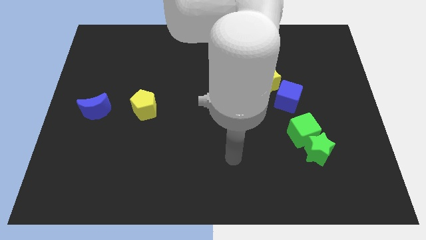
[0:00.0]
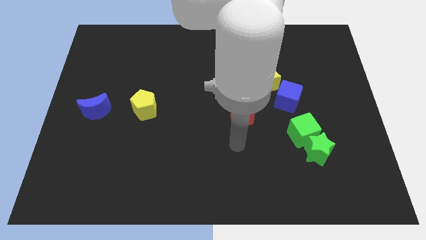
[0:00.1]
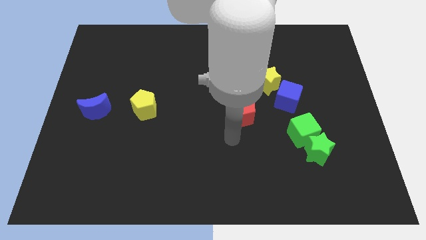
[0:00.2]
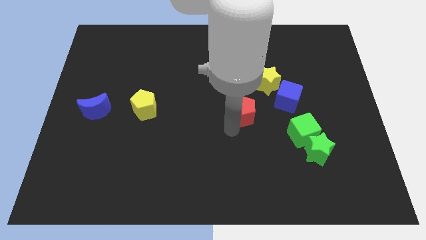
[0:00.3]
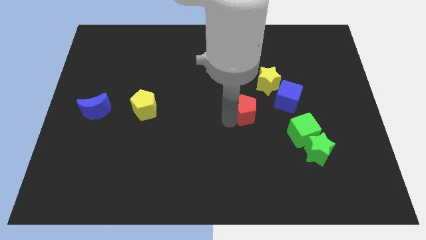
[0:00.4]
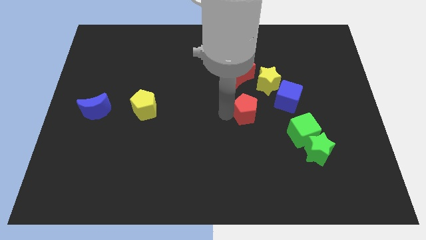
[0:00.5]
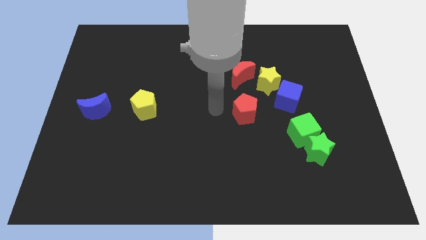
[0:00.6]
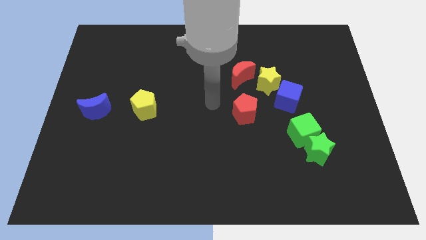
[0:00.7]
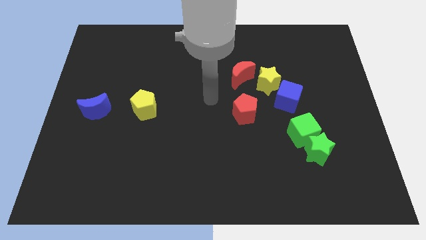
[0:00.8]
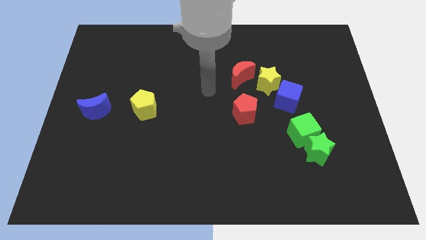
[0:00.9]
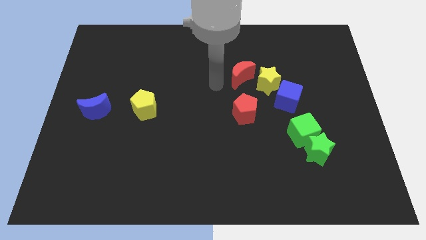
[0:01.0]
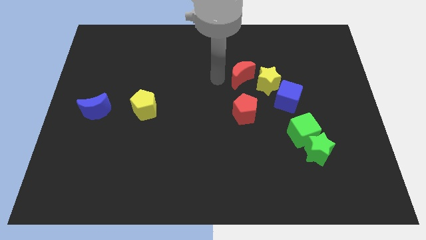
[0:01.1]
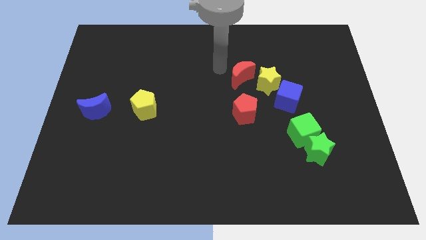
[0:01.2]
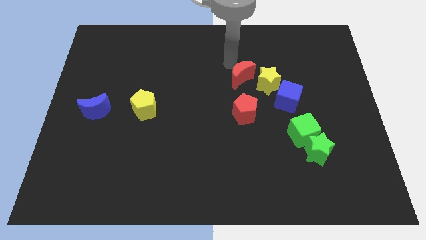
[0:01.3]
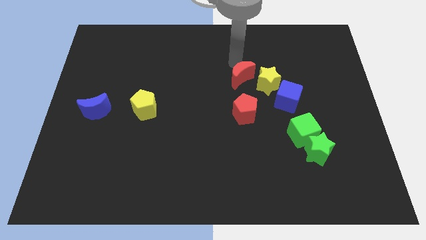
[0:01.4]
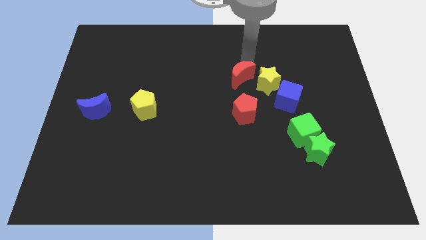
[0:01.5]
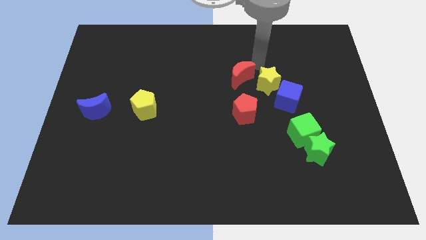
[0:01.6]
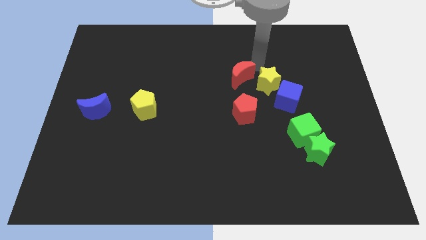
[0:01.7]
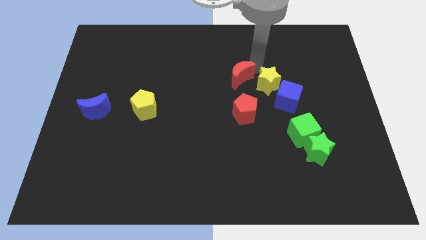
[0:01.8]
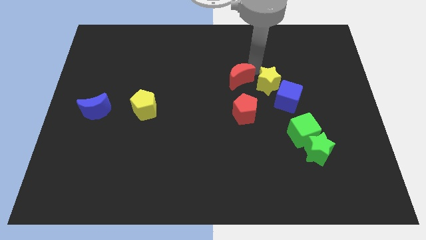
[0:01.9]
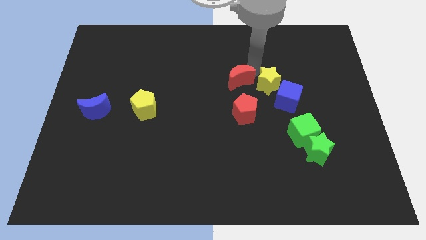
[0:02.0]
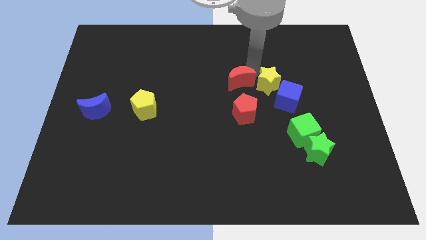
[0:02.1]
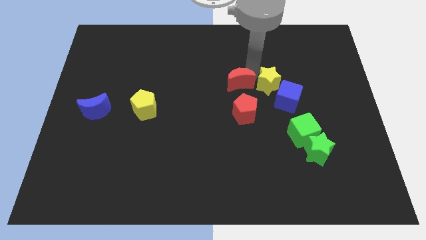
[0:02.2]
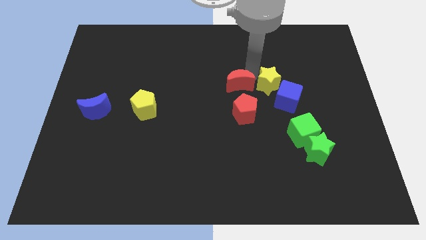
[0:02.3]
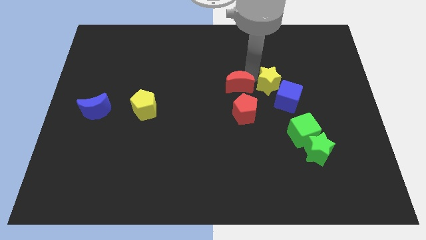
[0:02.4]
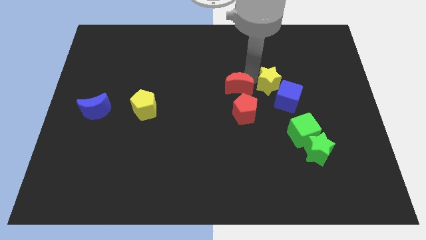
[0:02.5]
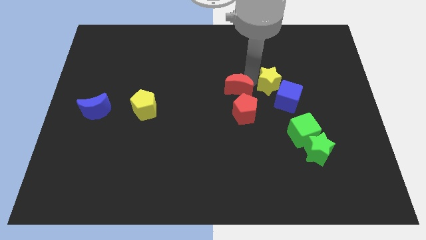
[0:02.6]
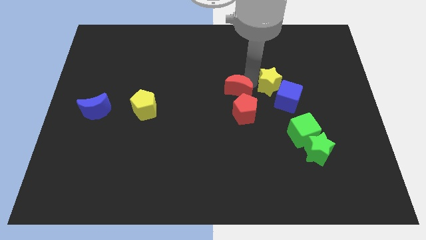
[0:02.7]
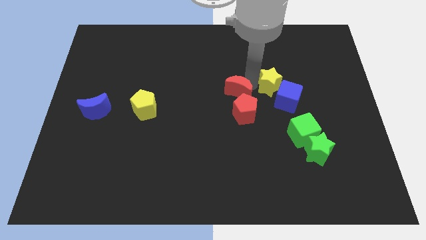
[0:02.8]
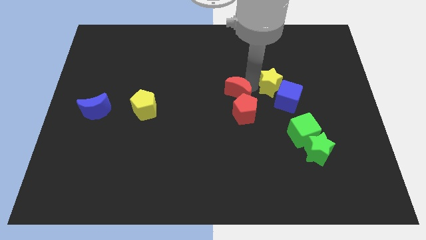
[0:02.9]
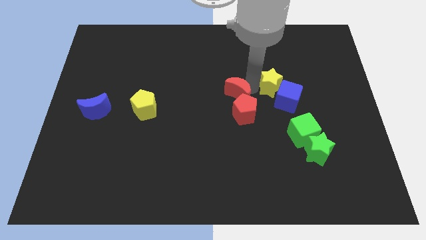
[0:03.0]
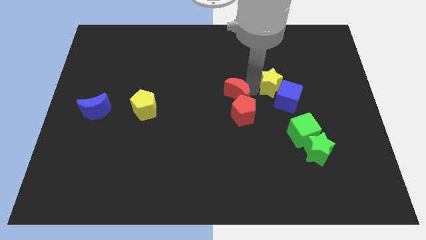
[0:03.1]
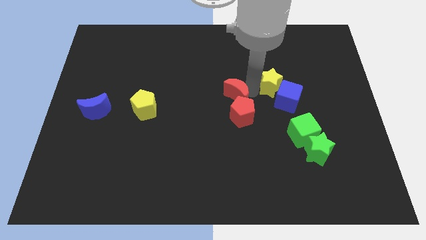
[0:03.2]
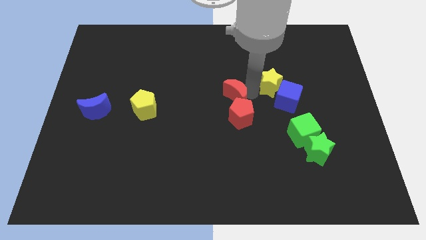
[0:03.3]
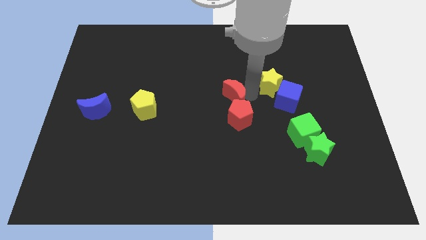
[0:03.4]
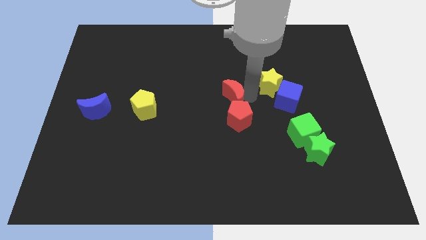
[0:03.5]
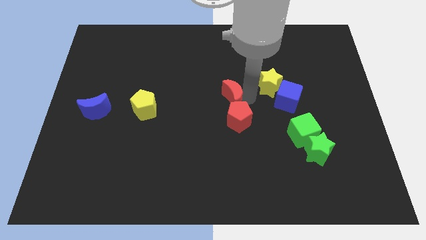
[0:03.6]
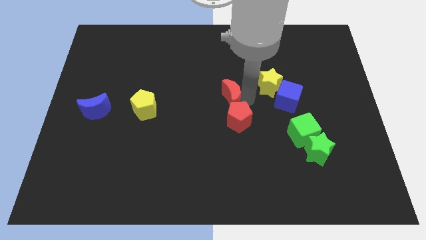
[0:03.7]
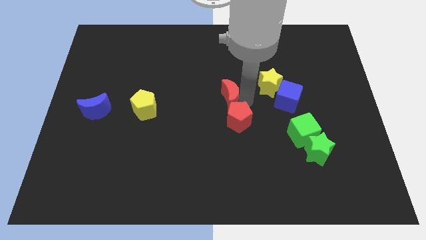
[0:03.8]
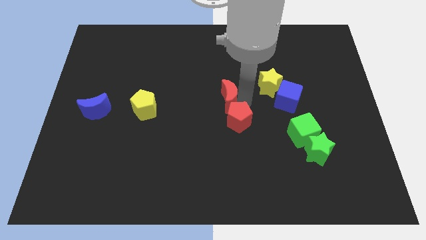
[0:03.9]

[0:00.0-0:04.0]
slightly slide the red moon down and then to the left

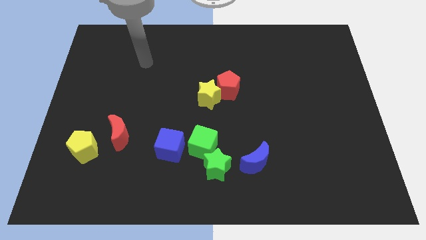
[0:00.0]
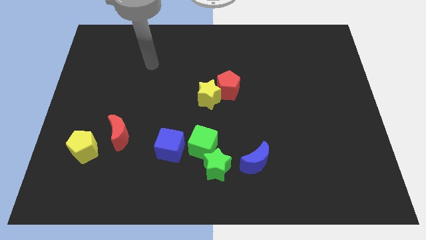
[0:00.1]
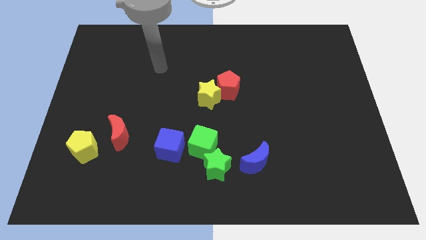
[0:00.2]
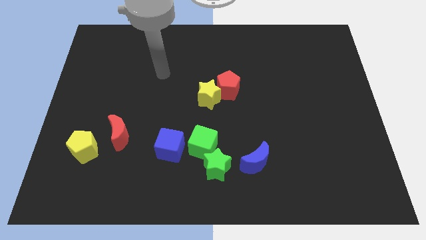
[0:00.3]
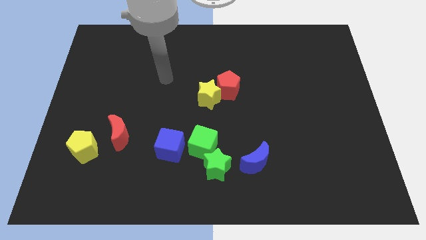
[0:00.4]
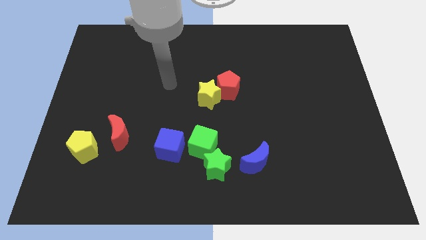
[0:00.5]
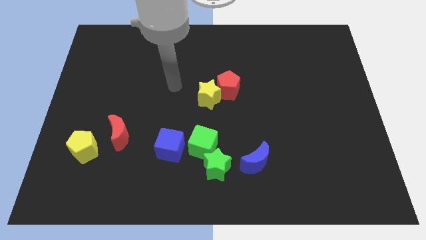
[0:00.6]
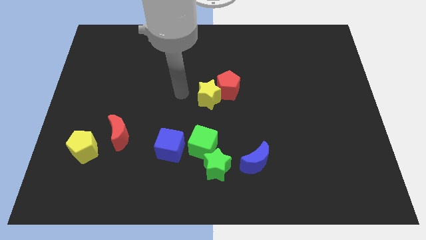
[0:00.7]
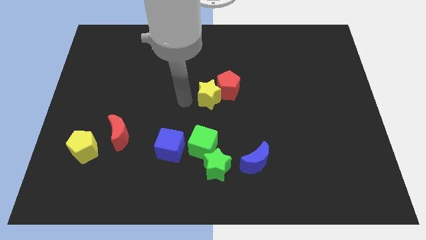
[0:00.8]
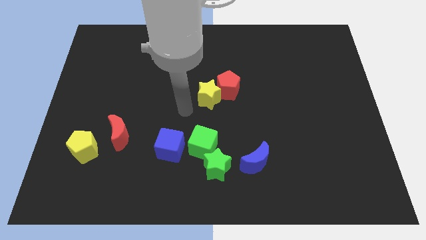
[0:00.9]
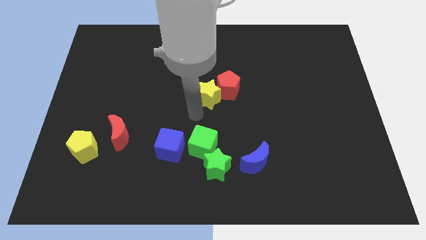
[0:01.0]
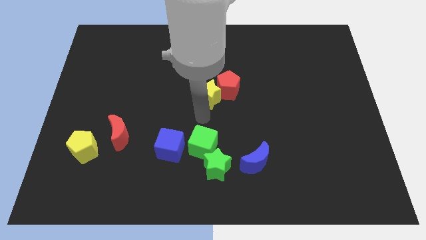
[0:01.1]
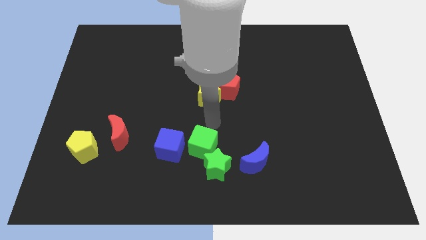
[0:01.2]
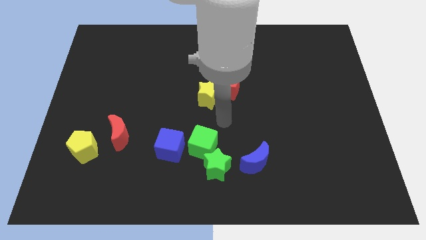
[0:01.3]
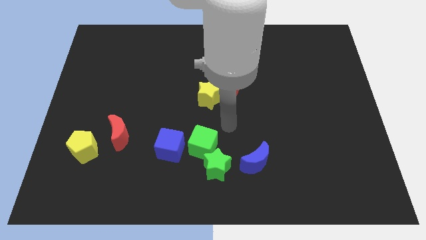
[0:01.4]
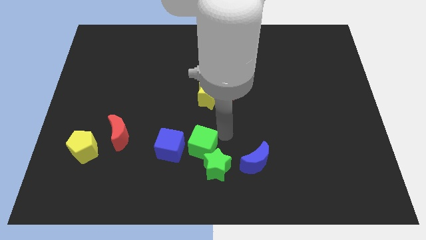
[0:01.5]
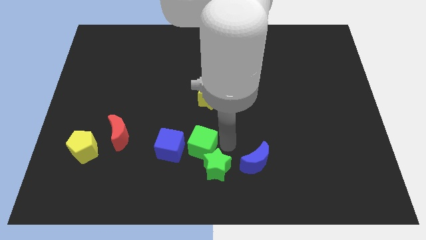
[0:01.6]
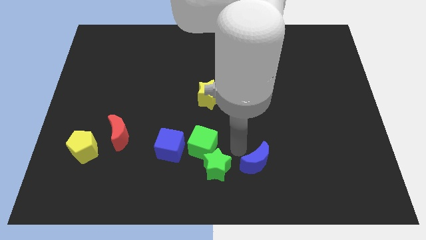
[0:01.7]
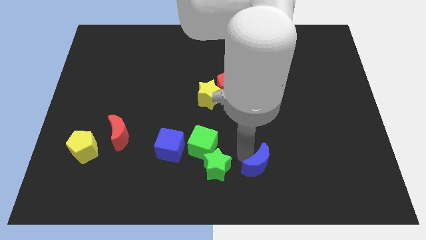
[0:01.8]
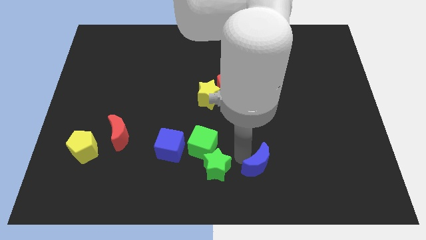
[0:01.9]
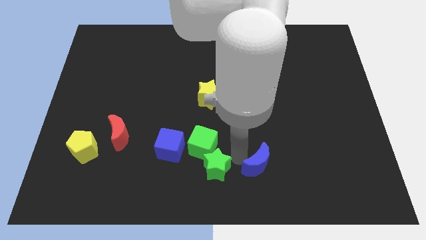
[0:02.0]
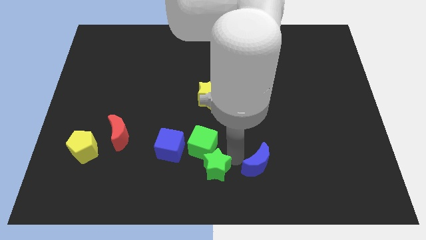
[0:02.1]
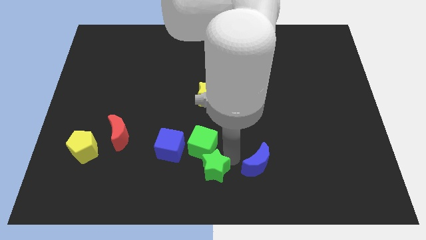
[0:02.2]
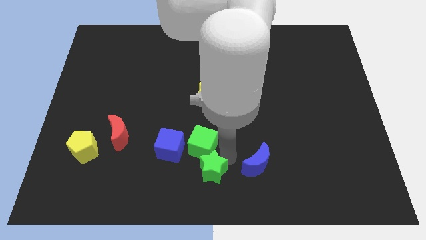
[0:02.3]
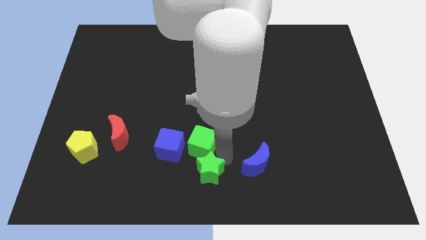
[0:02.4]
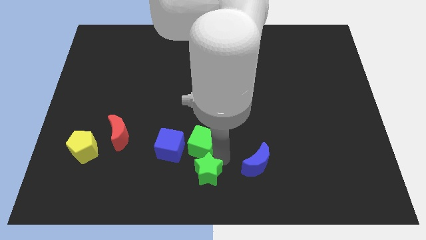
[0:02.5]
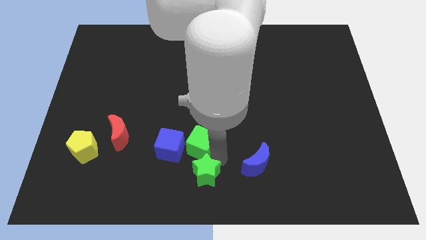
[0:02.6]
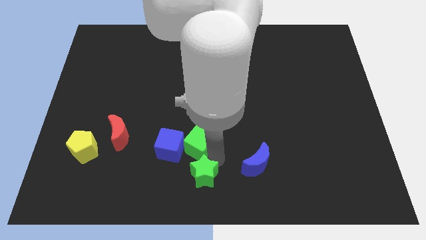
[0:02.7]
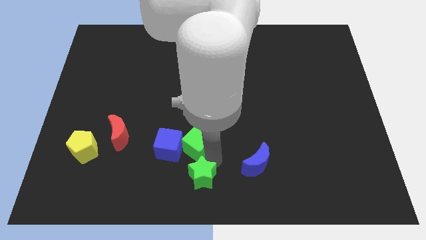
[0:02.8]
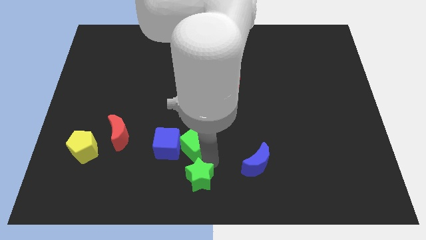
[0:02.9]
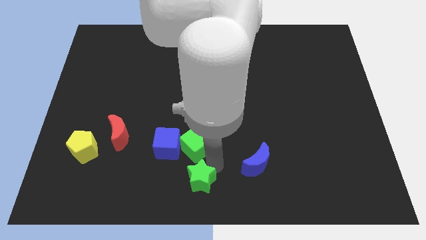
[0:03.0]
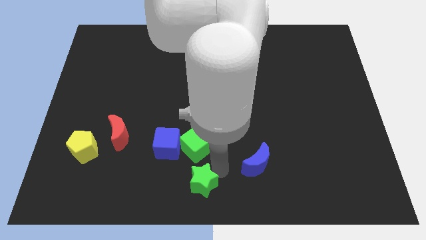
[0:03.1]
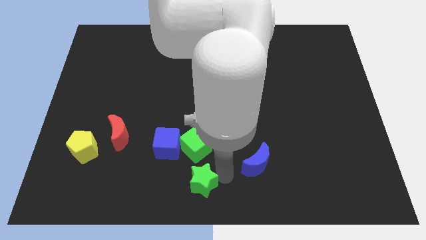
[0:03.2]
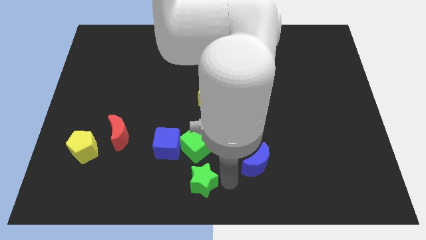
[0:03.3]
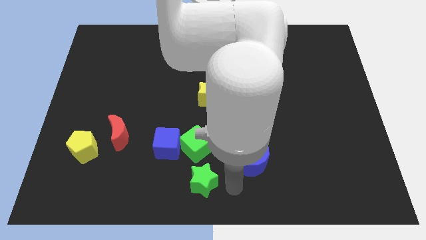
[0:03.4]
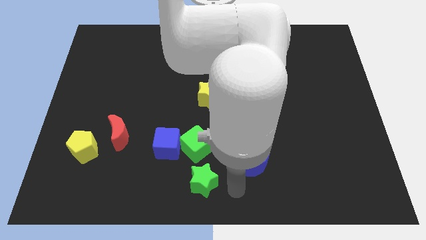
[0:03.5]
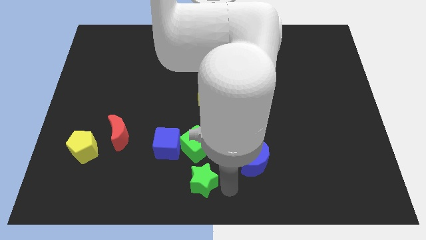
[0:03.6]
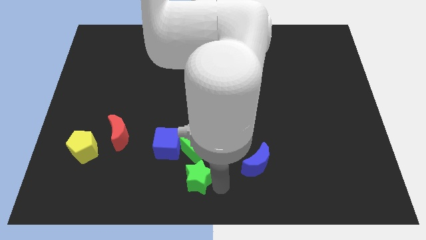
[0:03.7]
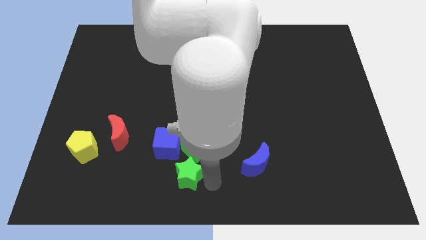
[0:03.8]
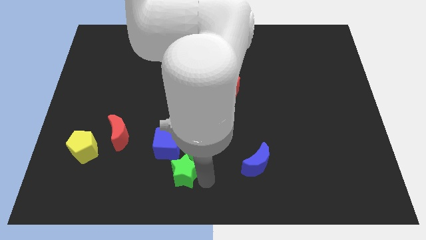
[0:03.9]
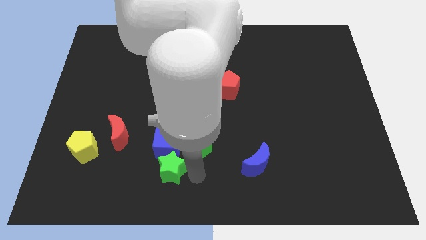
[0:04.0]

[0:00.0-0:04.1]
push the green star left a bit

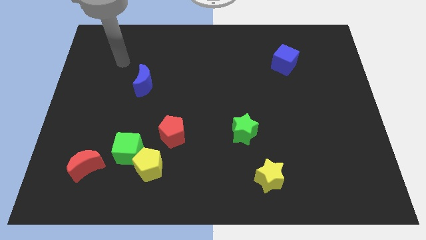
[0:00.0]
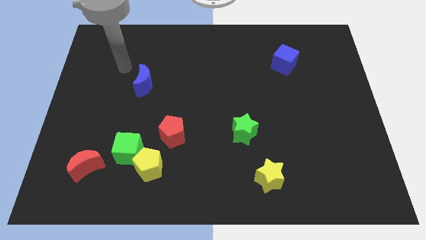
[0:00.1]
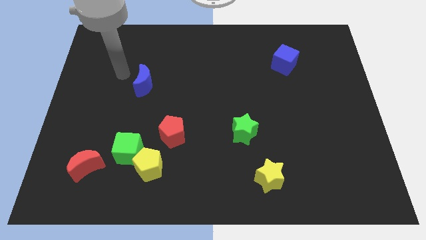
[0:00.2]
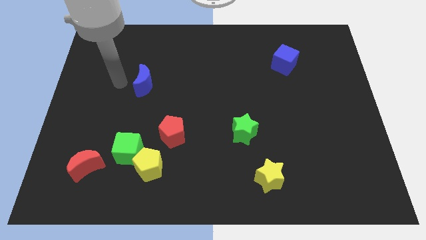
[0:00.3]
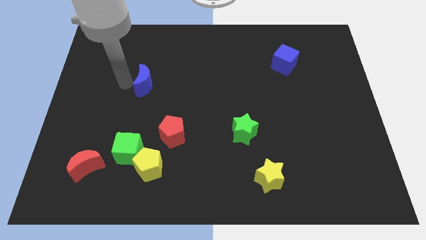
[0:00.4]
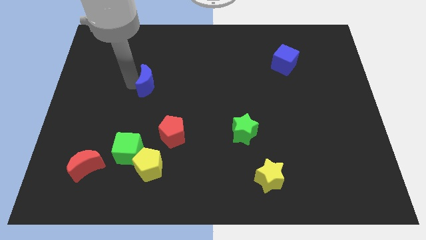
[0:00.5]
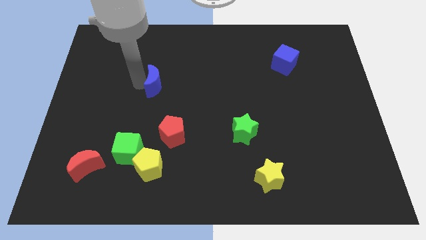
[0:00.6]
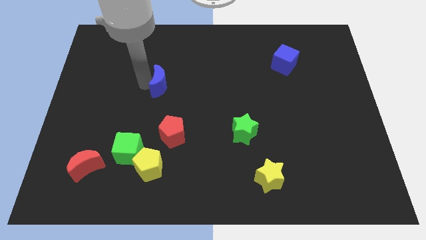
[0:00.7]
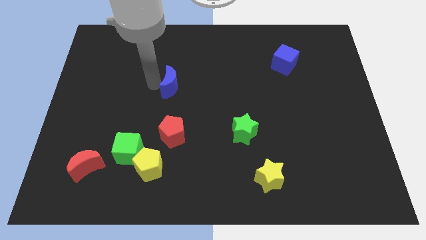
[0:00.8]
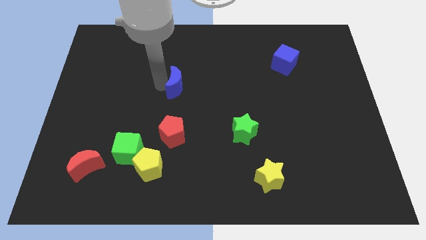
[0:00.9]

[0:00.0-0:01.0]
push the blue moon right slightly
